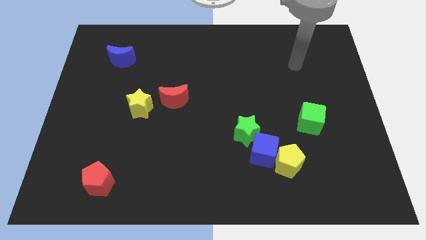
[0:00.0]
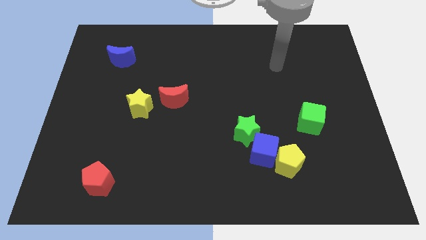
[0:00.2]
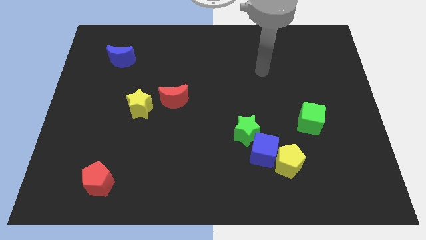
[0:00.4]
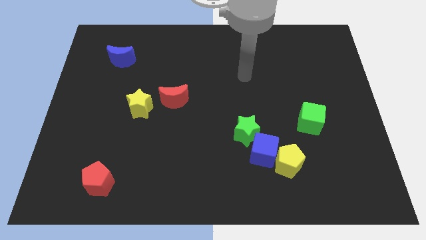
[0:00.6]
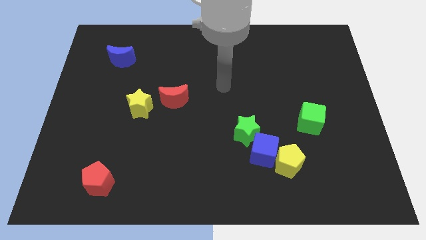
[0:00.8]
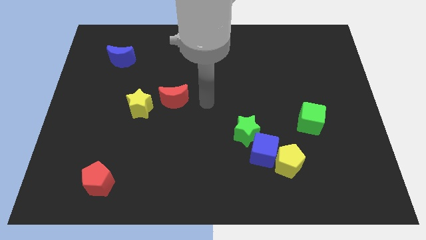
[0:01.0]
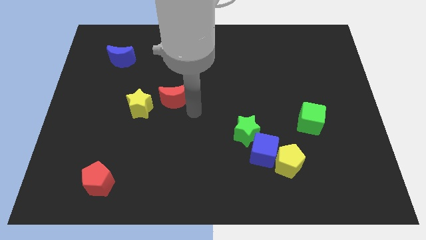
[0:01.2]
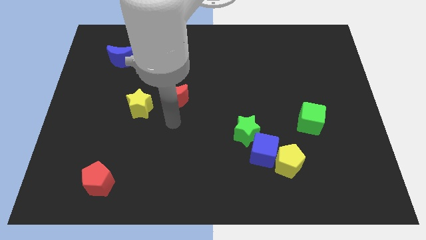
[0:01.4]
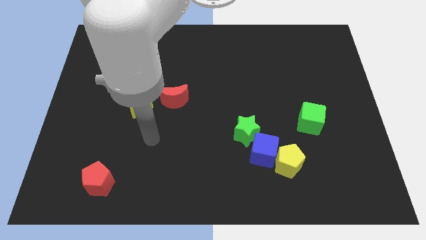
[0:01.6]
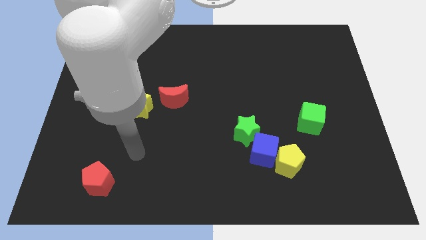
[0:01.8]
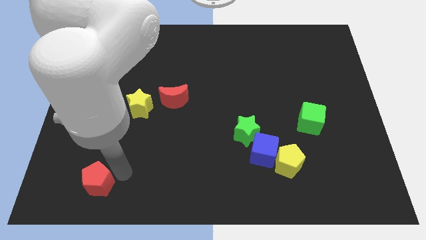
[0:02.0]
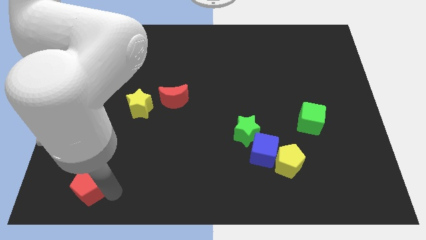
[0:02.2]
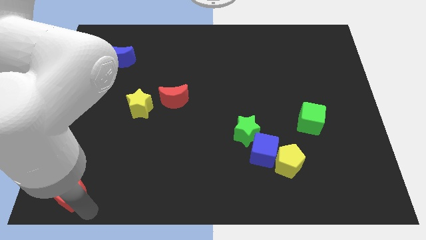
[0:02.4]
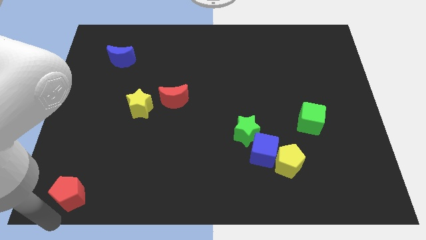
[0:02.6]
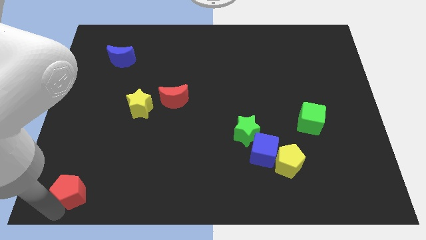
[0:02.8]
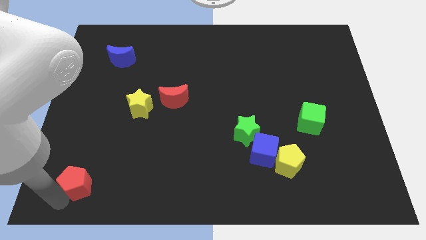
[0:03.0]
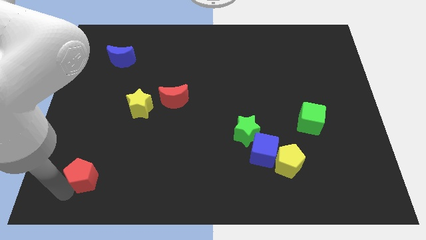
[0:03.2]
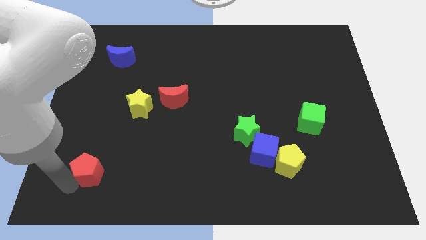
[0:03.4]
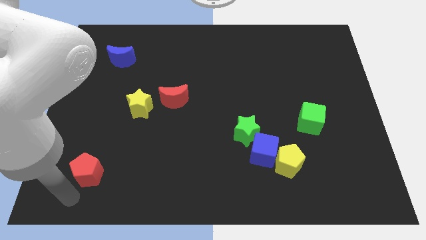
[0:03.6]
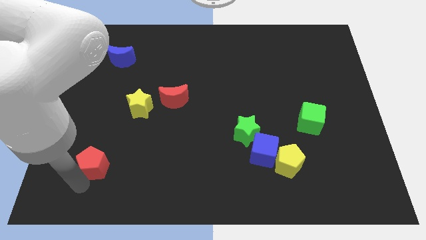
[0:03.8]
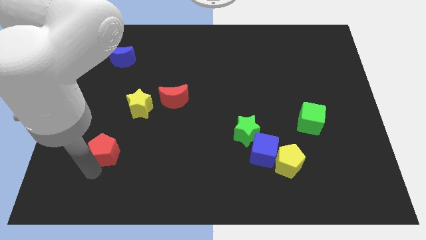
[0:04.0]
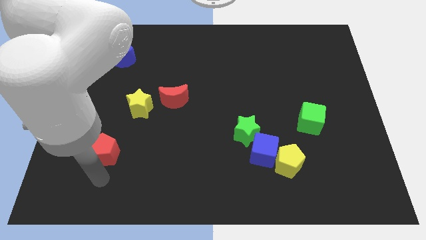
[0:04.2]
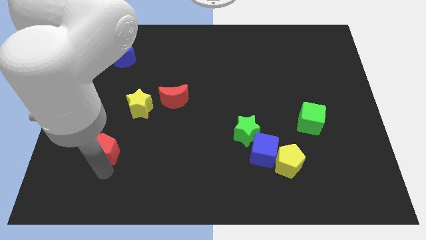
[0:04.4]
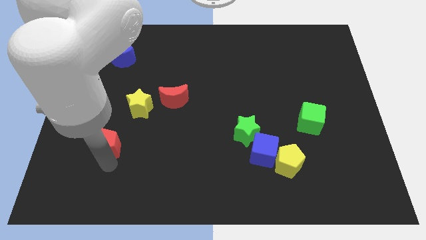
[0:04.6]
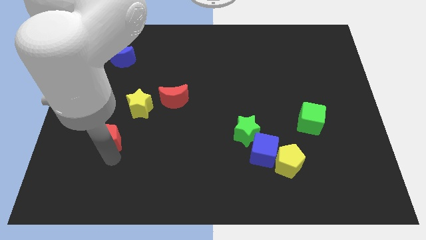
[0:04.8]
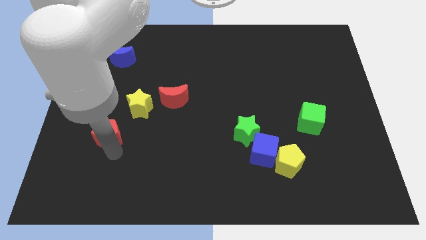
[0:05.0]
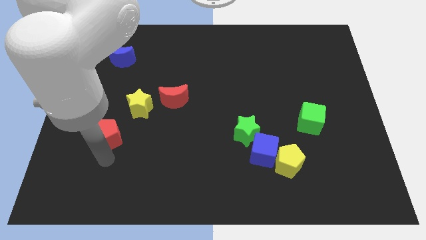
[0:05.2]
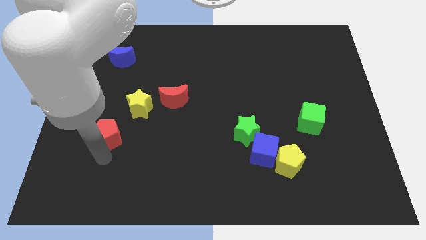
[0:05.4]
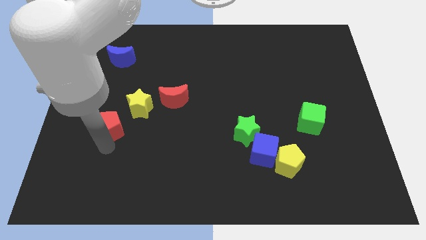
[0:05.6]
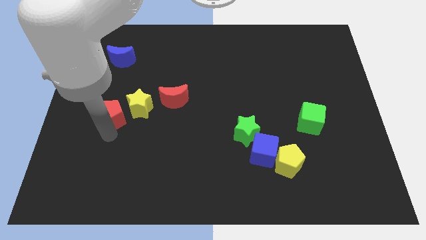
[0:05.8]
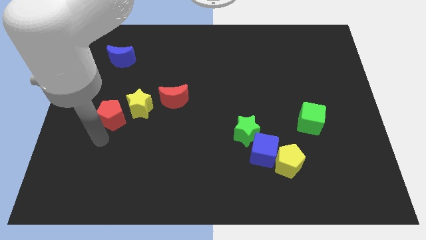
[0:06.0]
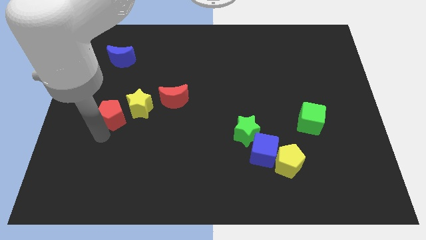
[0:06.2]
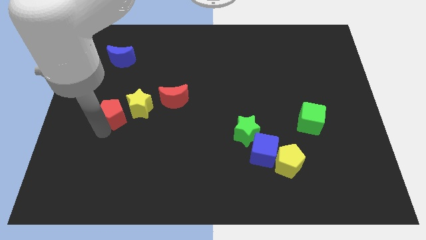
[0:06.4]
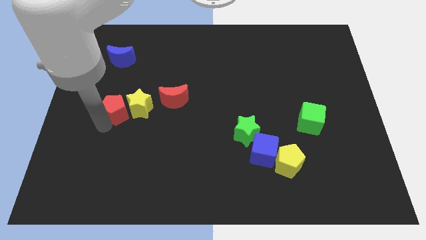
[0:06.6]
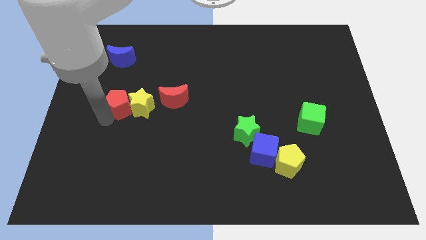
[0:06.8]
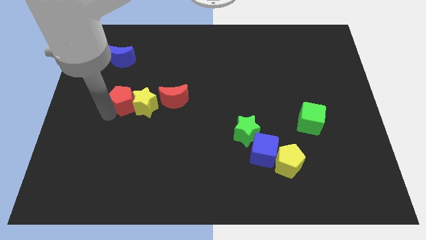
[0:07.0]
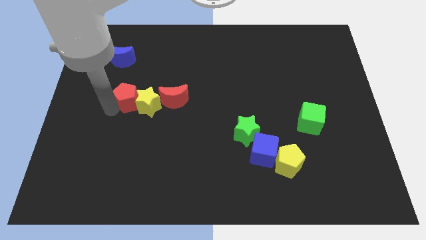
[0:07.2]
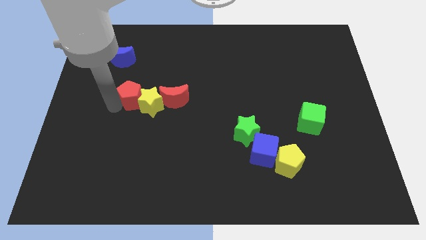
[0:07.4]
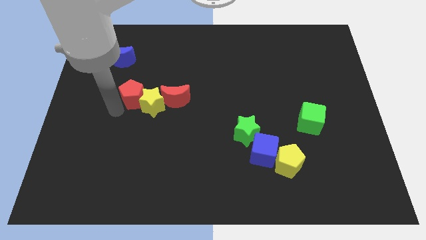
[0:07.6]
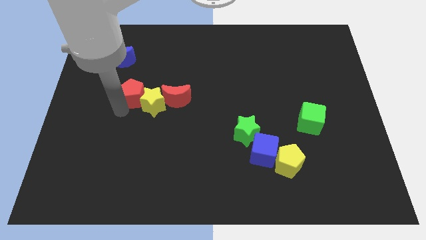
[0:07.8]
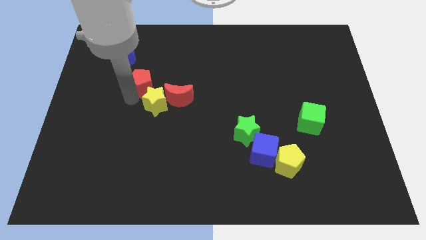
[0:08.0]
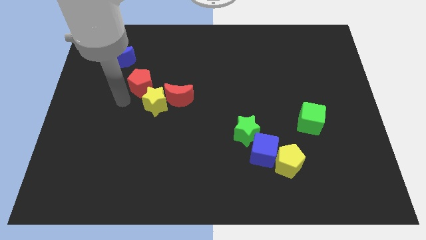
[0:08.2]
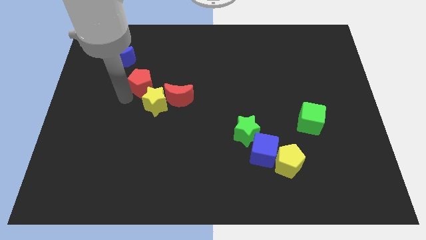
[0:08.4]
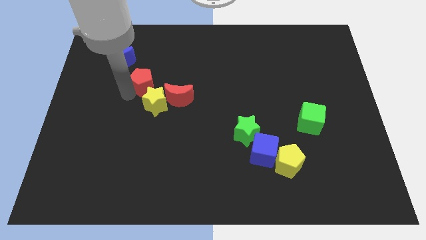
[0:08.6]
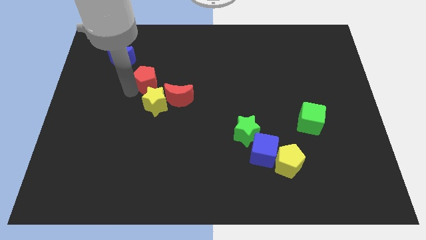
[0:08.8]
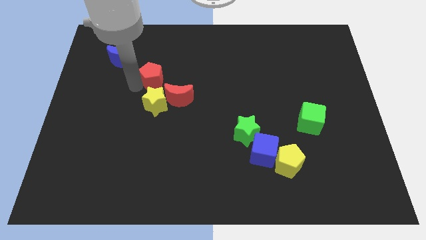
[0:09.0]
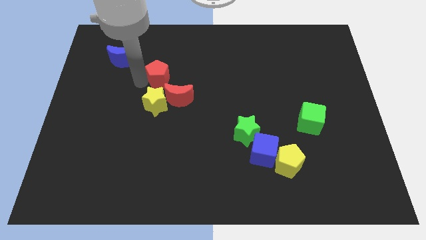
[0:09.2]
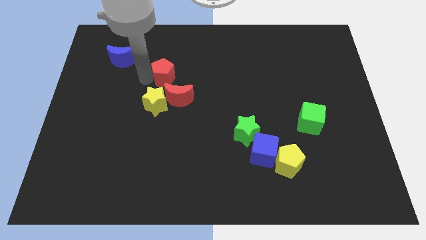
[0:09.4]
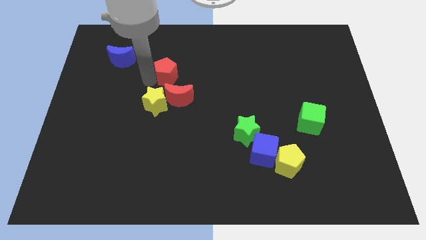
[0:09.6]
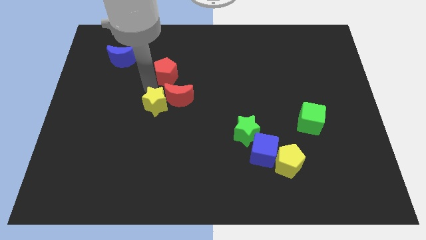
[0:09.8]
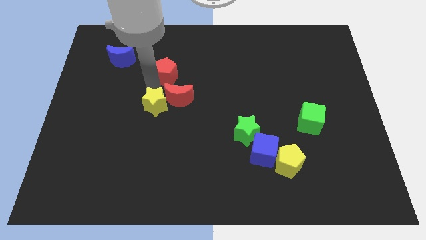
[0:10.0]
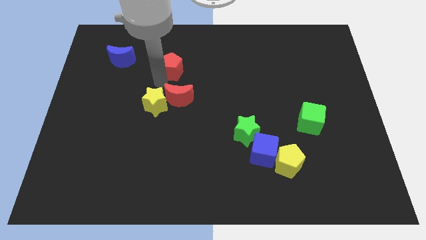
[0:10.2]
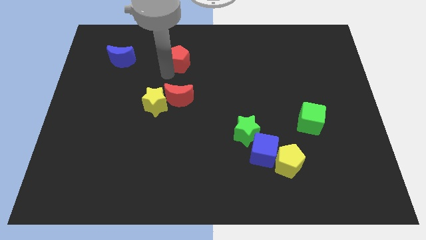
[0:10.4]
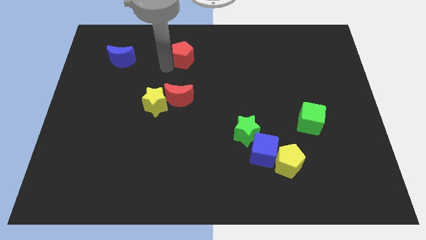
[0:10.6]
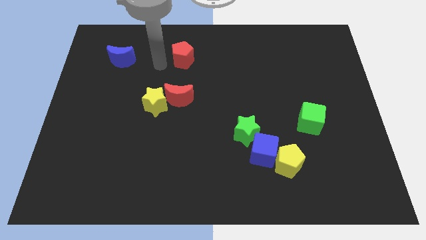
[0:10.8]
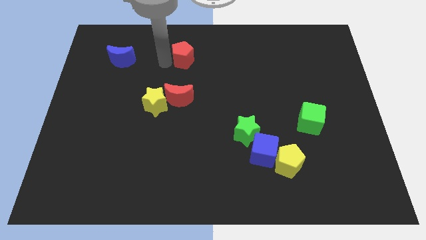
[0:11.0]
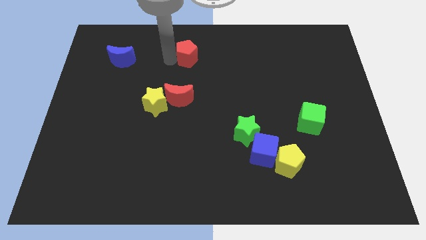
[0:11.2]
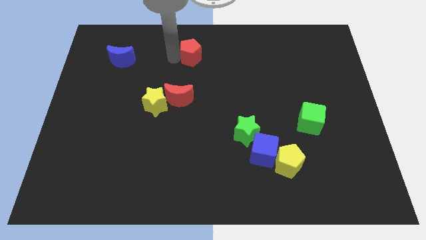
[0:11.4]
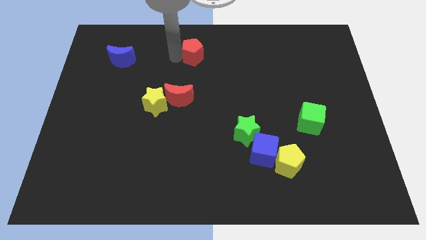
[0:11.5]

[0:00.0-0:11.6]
put the red pentagon to the towards your base
